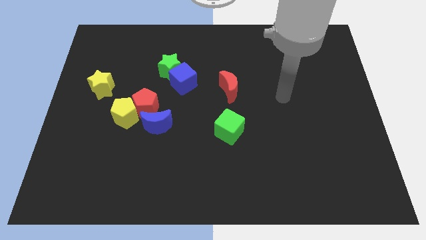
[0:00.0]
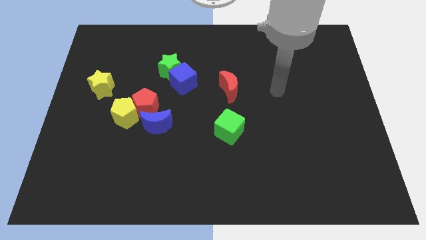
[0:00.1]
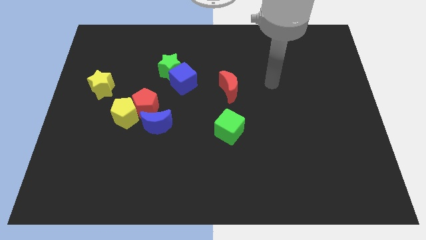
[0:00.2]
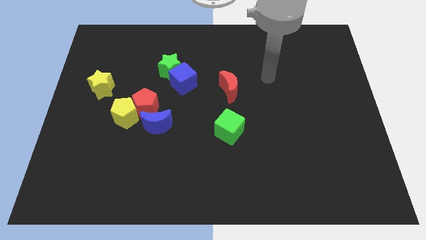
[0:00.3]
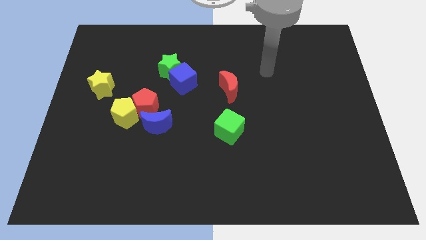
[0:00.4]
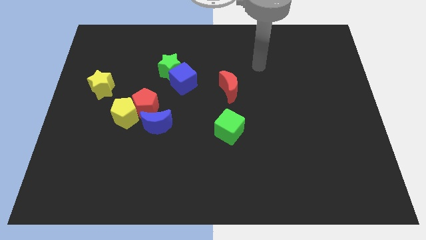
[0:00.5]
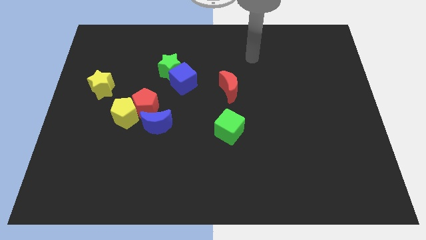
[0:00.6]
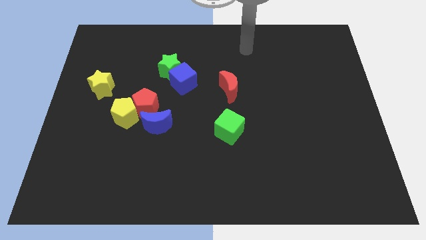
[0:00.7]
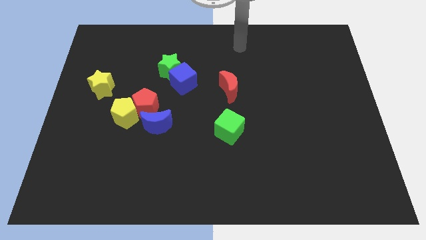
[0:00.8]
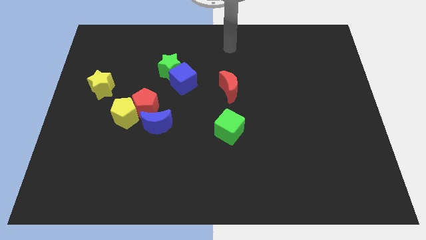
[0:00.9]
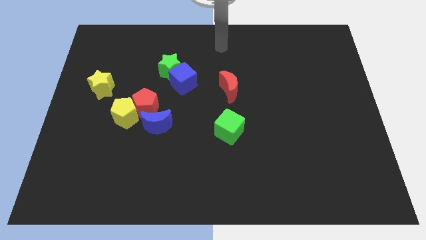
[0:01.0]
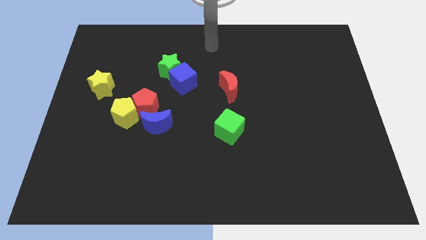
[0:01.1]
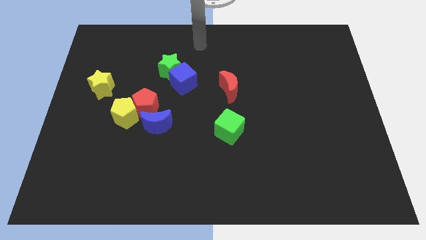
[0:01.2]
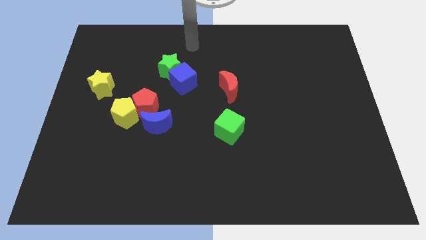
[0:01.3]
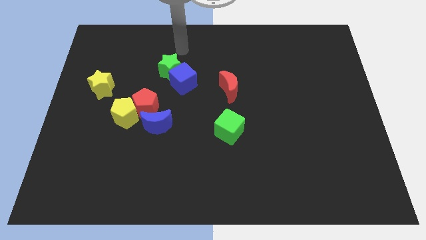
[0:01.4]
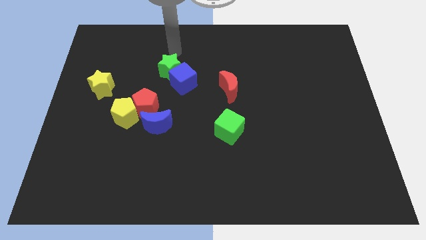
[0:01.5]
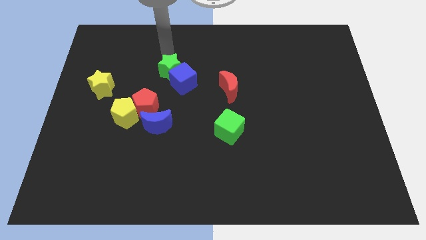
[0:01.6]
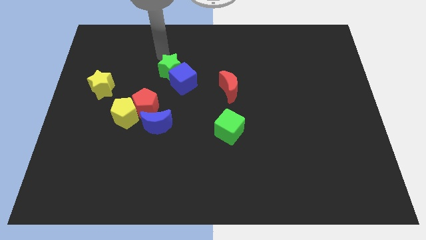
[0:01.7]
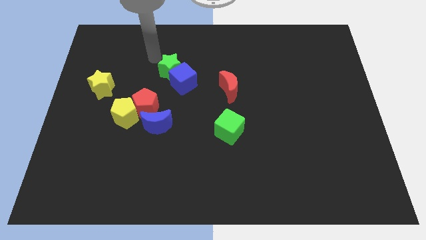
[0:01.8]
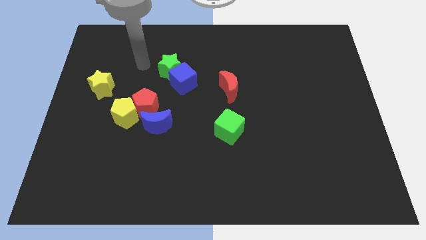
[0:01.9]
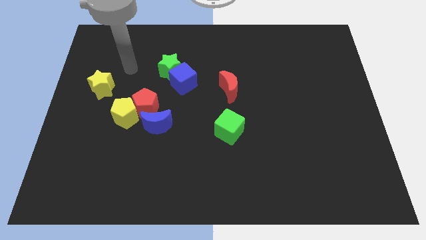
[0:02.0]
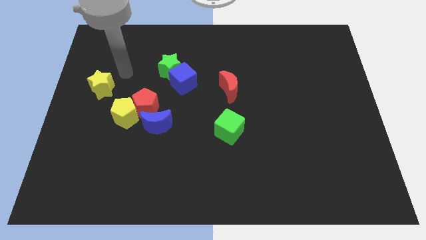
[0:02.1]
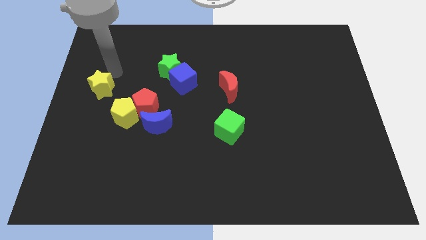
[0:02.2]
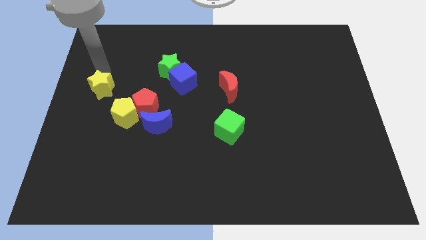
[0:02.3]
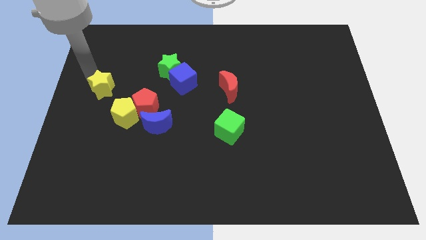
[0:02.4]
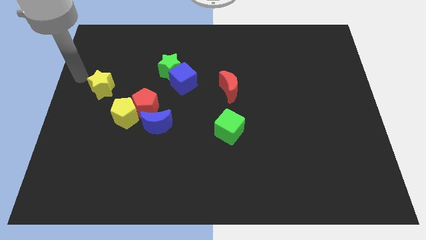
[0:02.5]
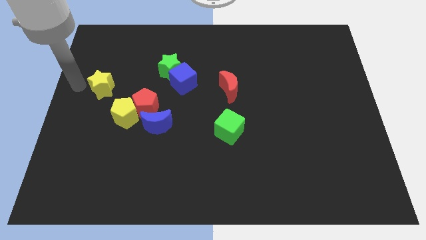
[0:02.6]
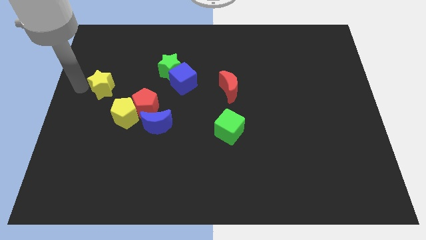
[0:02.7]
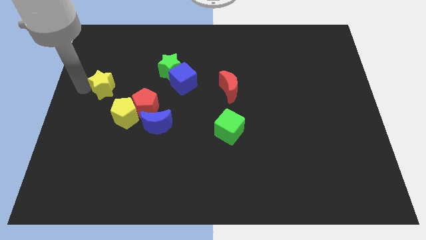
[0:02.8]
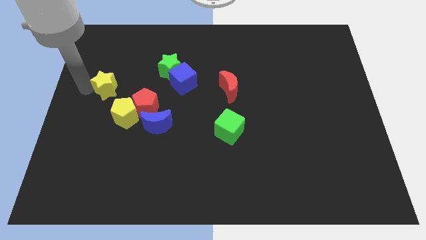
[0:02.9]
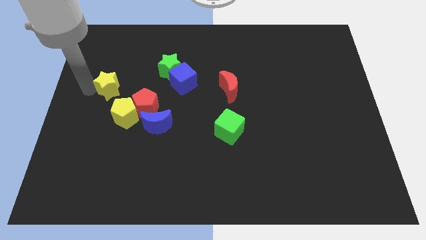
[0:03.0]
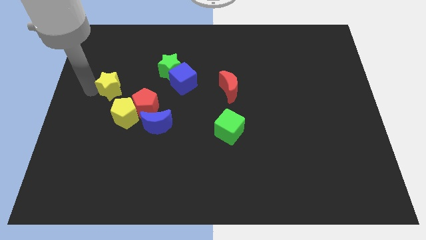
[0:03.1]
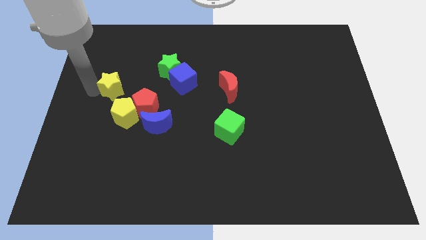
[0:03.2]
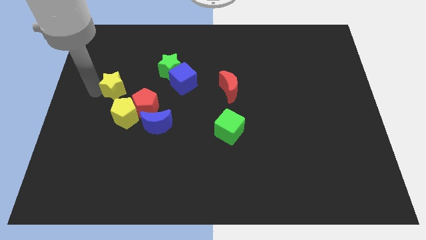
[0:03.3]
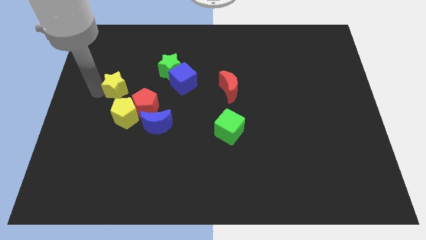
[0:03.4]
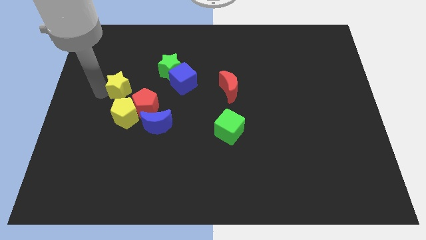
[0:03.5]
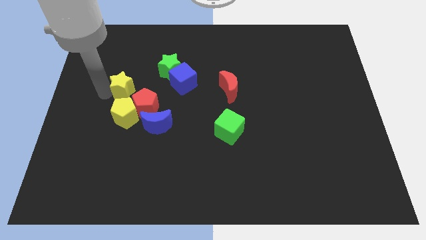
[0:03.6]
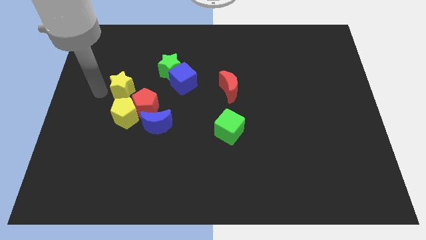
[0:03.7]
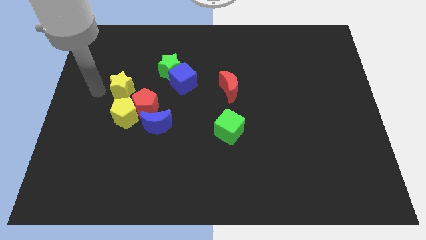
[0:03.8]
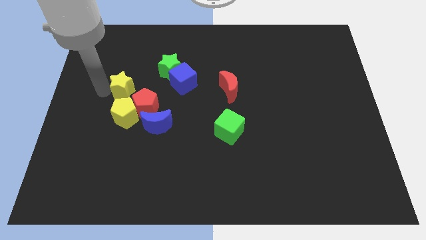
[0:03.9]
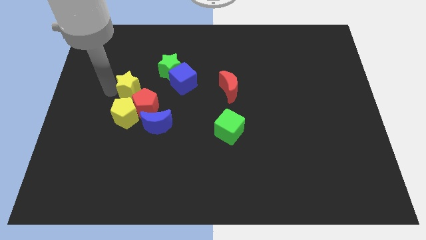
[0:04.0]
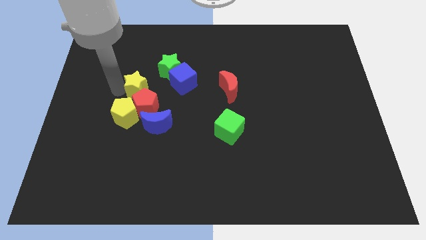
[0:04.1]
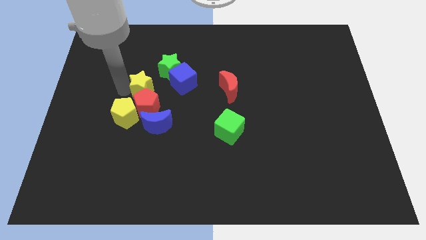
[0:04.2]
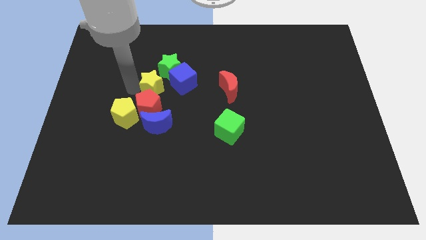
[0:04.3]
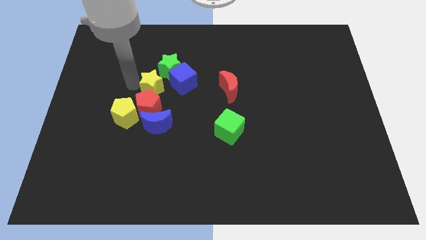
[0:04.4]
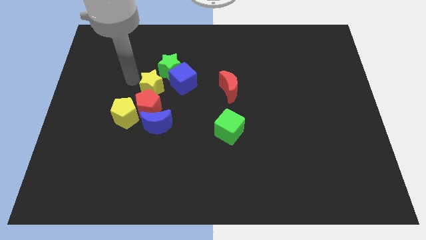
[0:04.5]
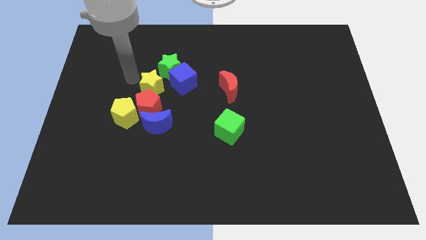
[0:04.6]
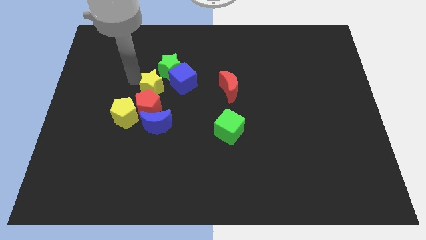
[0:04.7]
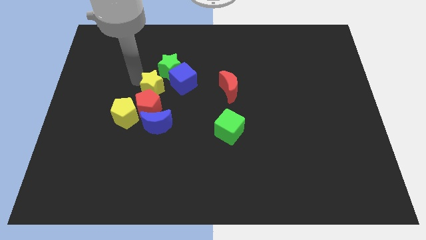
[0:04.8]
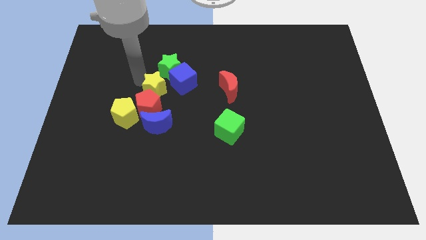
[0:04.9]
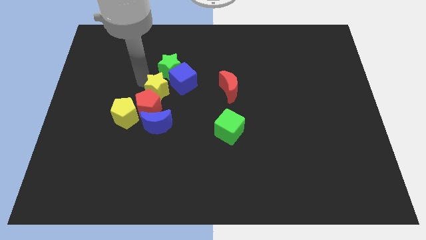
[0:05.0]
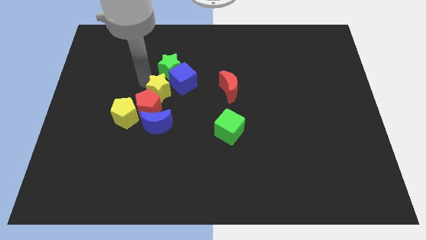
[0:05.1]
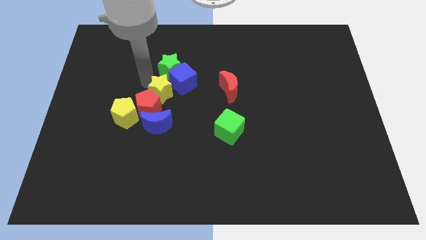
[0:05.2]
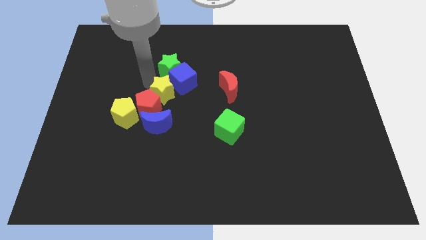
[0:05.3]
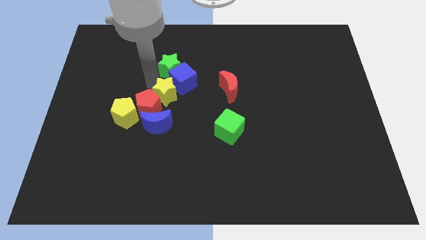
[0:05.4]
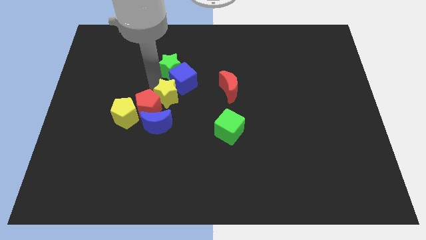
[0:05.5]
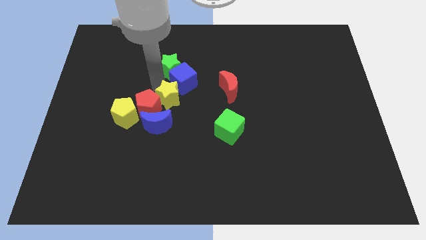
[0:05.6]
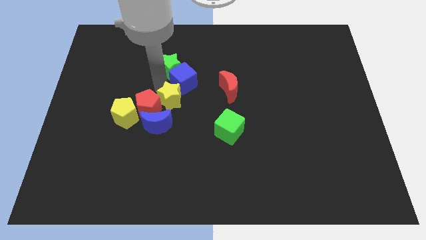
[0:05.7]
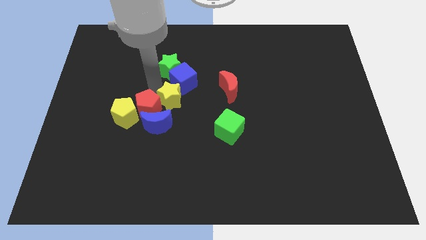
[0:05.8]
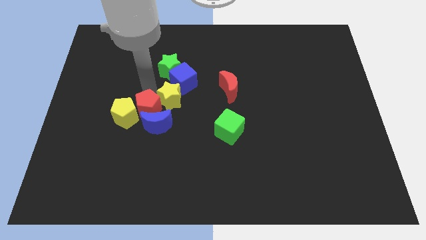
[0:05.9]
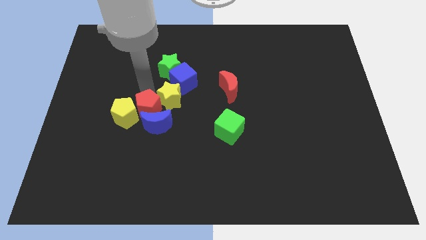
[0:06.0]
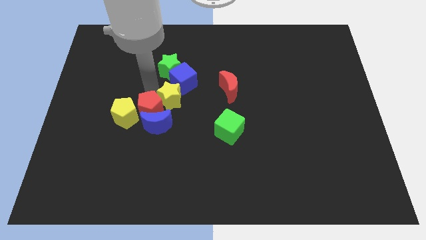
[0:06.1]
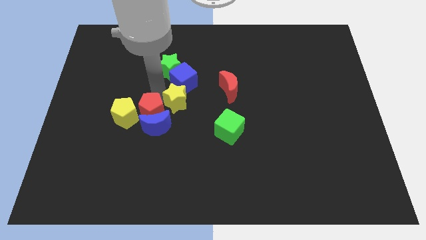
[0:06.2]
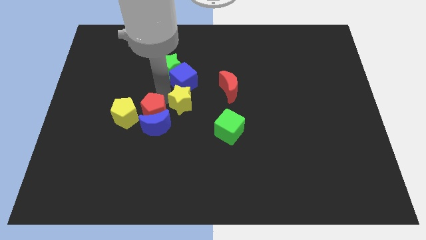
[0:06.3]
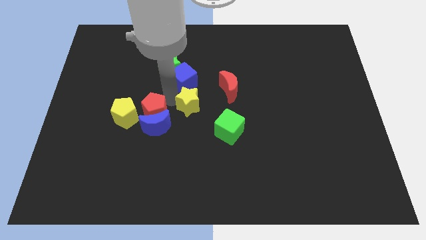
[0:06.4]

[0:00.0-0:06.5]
move the yellow star to the top left of the green cube
